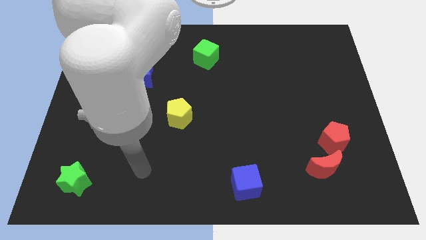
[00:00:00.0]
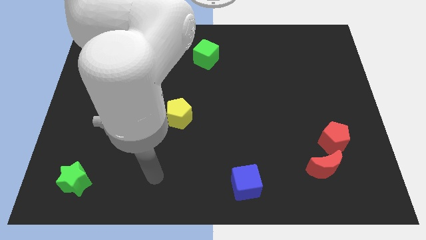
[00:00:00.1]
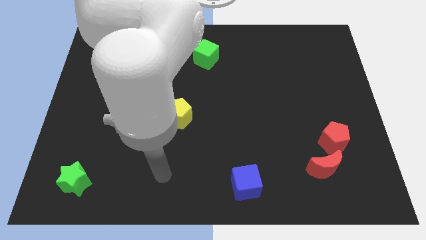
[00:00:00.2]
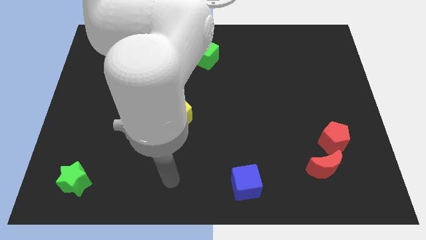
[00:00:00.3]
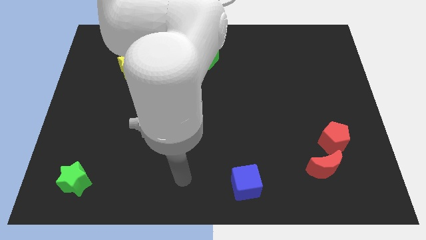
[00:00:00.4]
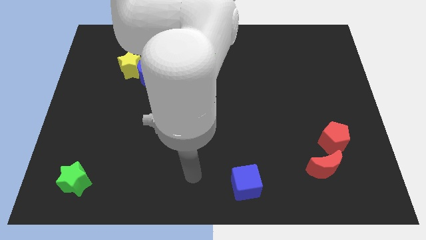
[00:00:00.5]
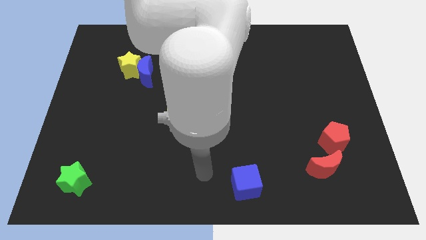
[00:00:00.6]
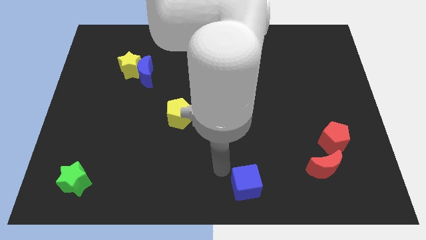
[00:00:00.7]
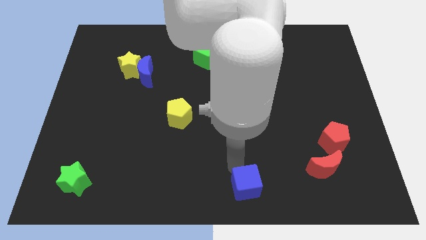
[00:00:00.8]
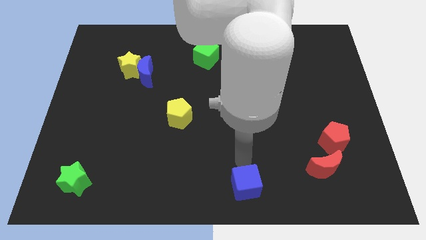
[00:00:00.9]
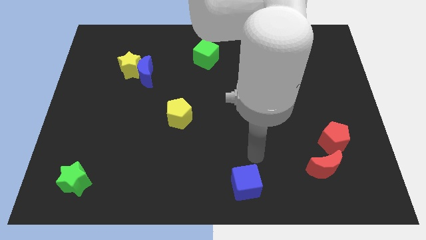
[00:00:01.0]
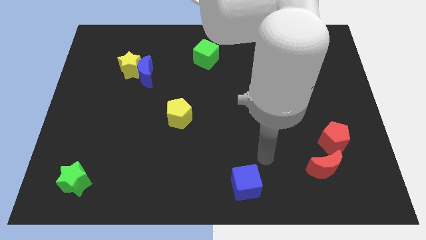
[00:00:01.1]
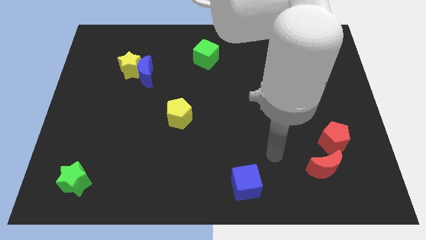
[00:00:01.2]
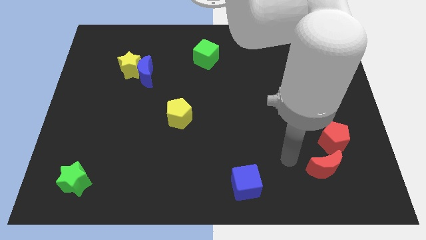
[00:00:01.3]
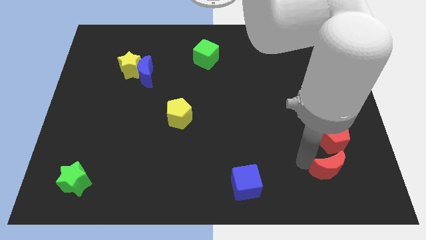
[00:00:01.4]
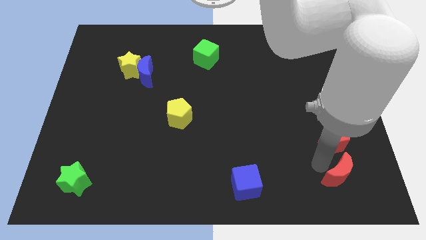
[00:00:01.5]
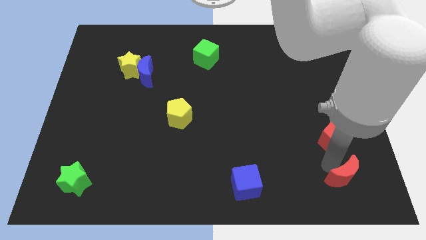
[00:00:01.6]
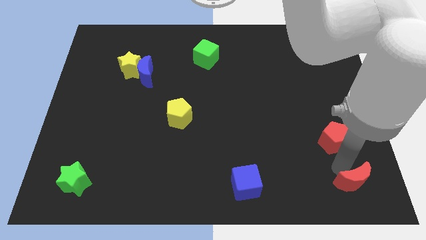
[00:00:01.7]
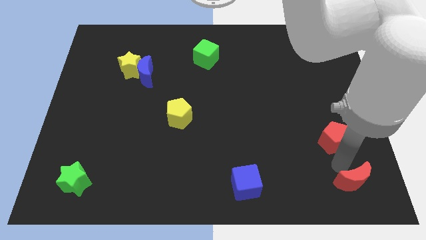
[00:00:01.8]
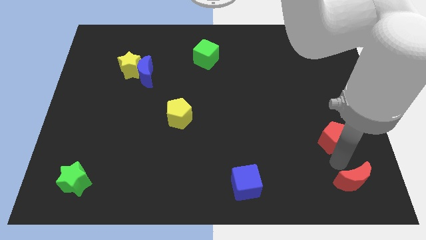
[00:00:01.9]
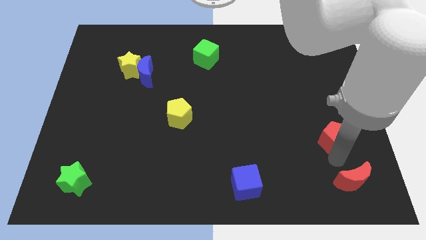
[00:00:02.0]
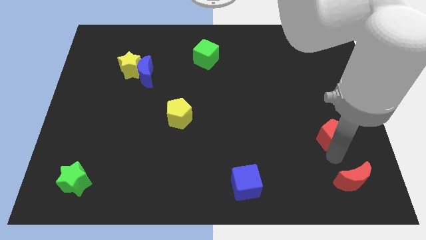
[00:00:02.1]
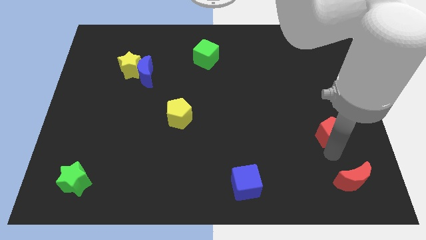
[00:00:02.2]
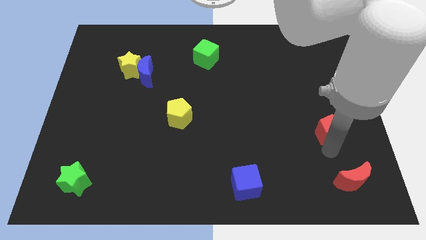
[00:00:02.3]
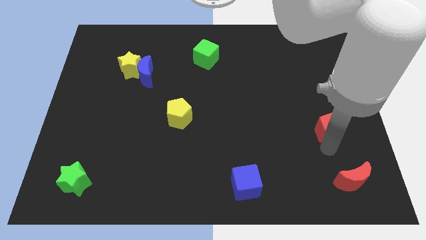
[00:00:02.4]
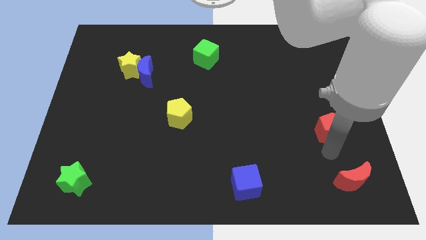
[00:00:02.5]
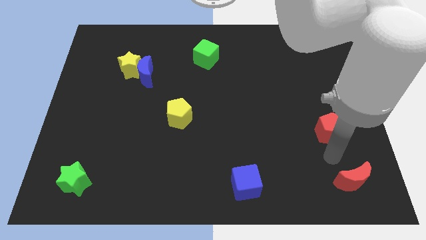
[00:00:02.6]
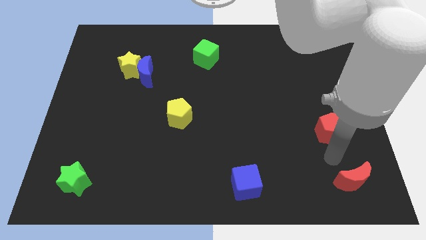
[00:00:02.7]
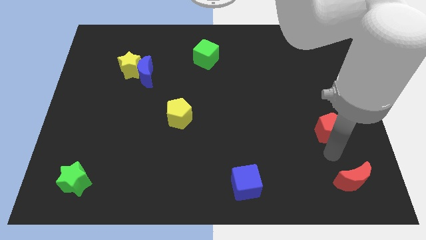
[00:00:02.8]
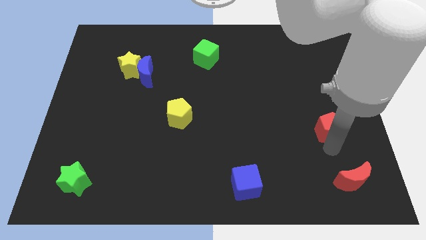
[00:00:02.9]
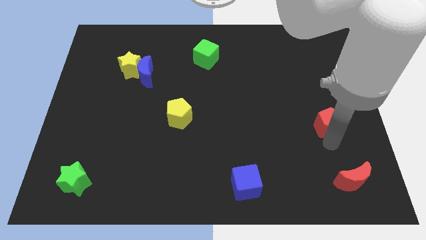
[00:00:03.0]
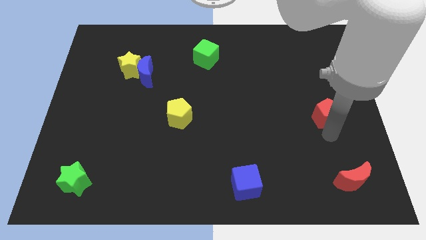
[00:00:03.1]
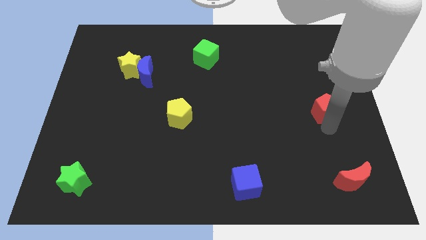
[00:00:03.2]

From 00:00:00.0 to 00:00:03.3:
move the red pentagon a bit up

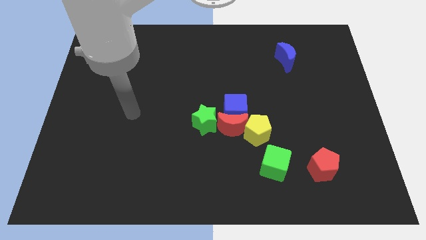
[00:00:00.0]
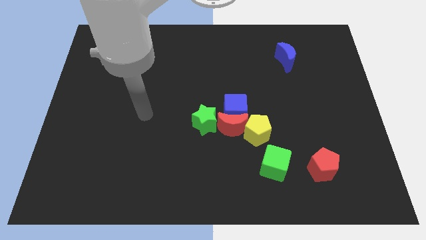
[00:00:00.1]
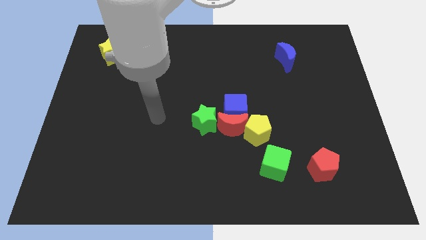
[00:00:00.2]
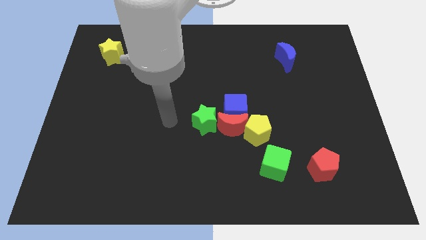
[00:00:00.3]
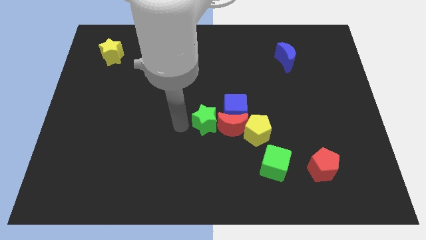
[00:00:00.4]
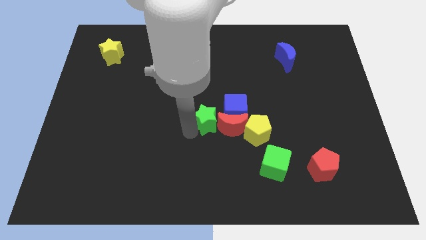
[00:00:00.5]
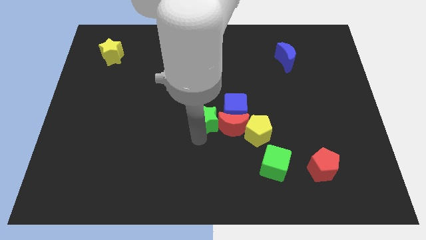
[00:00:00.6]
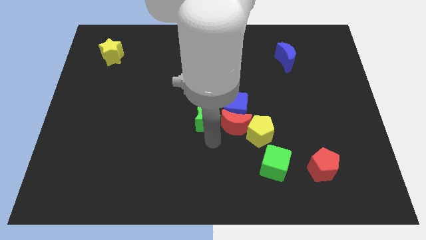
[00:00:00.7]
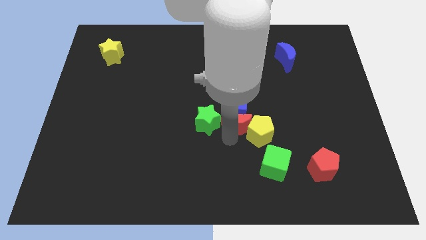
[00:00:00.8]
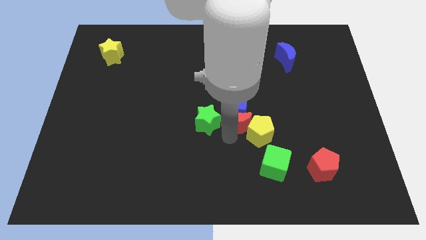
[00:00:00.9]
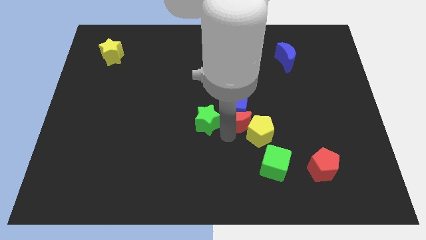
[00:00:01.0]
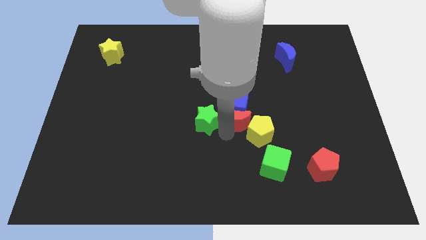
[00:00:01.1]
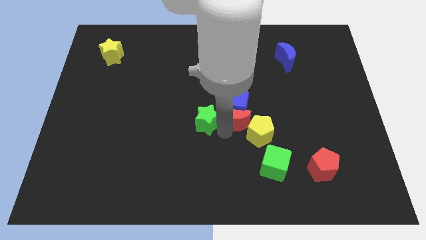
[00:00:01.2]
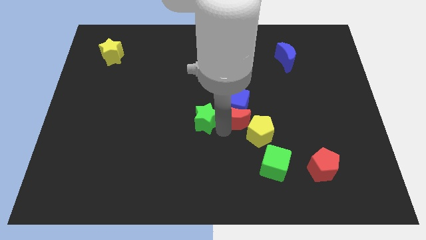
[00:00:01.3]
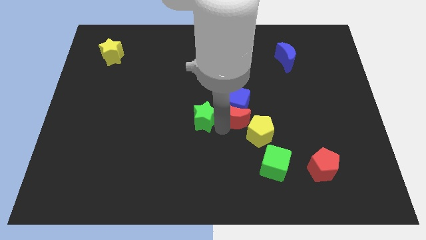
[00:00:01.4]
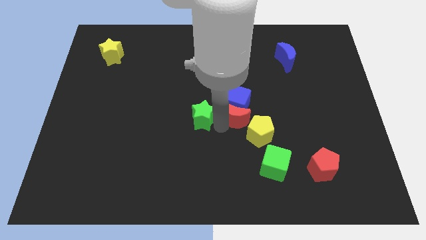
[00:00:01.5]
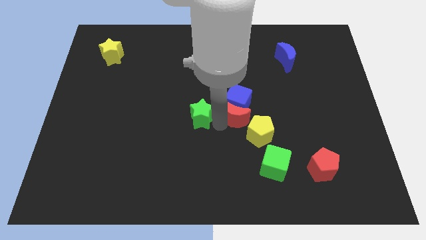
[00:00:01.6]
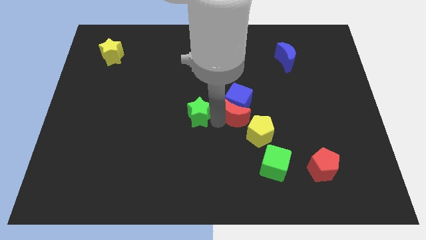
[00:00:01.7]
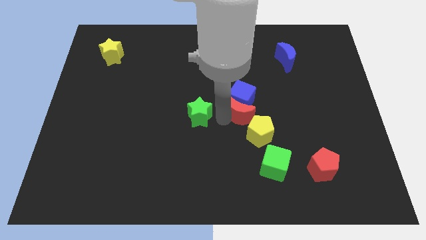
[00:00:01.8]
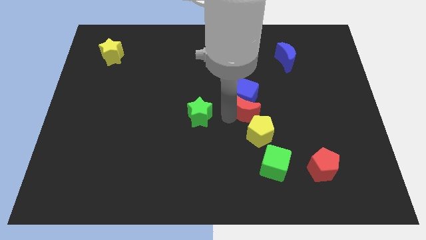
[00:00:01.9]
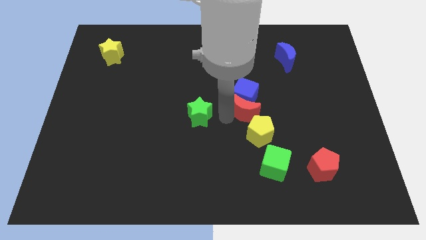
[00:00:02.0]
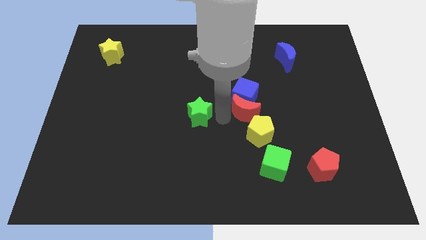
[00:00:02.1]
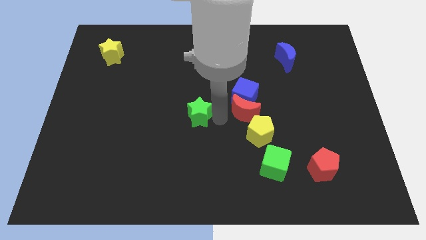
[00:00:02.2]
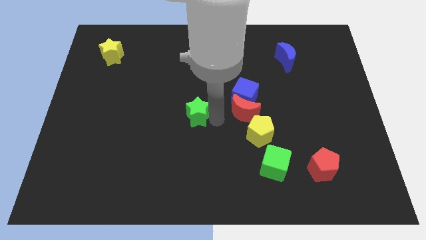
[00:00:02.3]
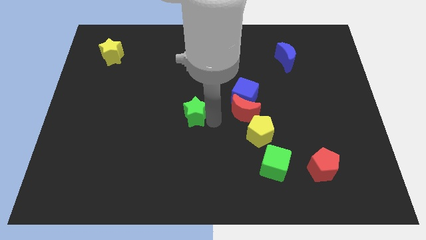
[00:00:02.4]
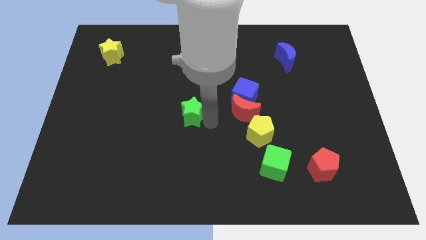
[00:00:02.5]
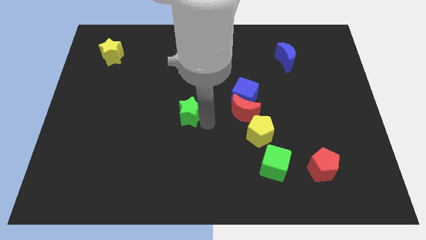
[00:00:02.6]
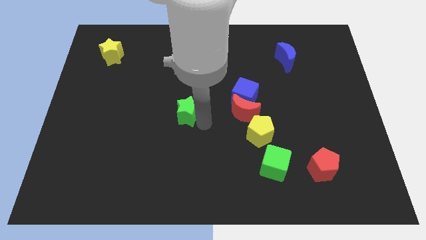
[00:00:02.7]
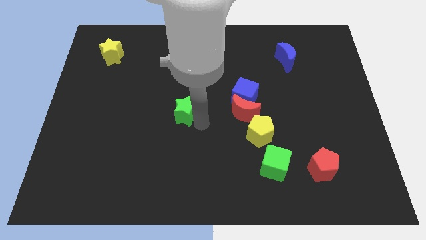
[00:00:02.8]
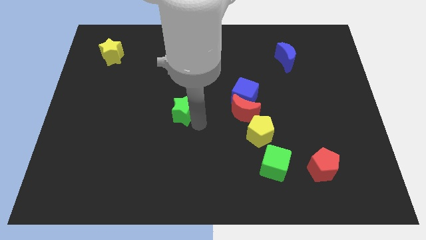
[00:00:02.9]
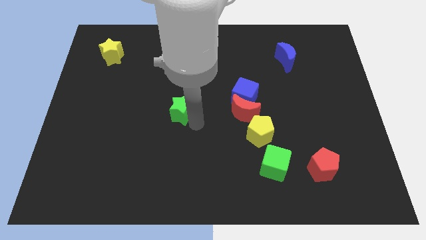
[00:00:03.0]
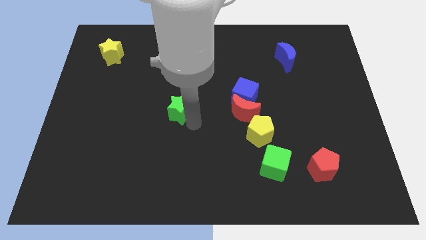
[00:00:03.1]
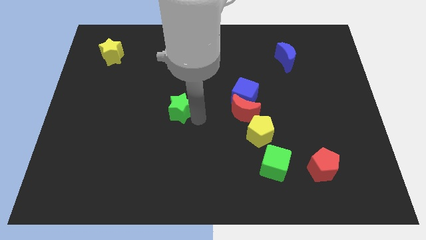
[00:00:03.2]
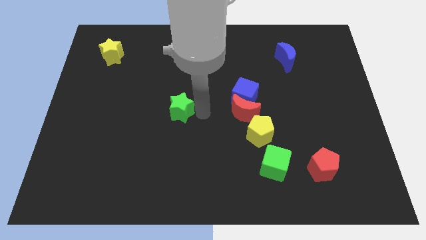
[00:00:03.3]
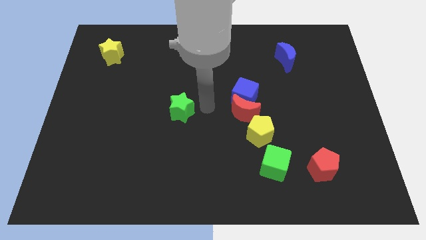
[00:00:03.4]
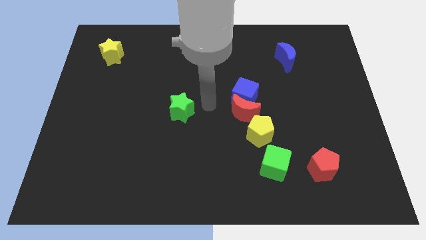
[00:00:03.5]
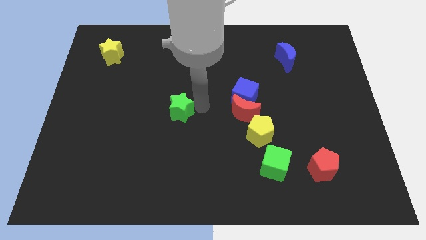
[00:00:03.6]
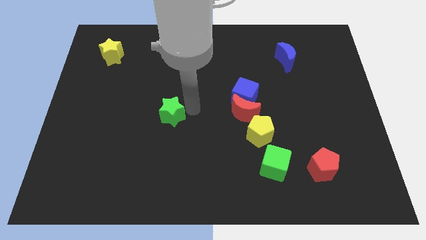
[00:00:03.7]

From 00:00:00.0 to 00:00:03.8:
push the green star left a little bit

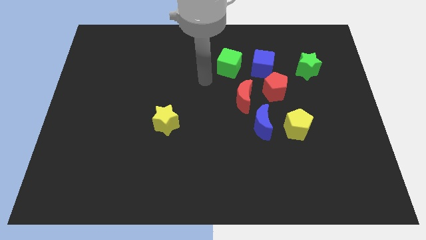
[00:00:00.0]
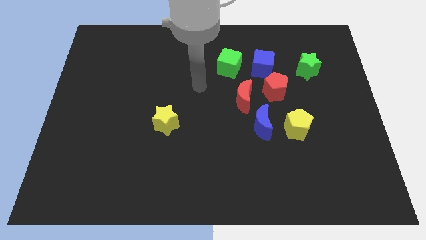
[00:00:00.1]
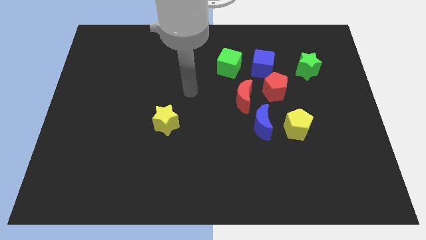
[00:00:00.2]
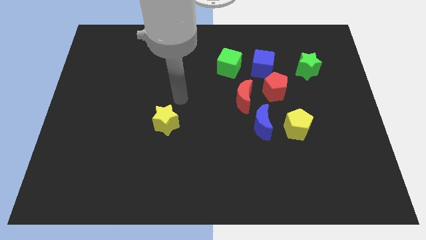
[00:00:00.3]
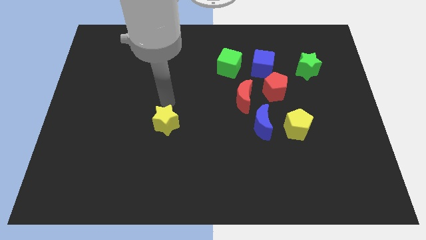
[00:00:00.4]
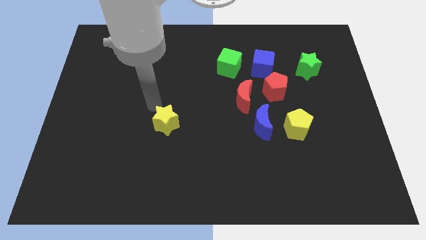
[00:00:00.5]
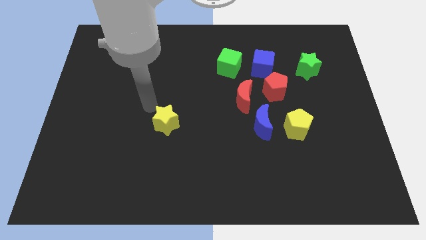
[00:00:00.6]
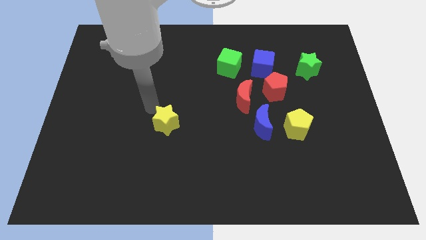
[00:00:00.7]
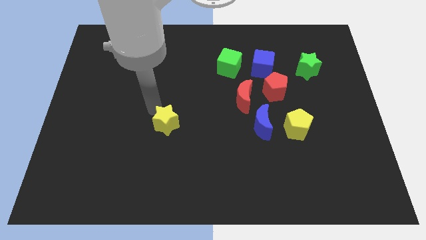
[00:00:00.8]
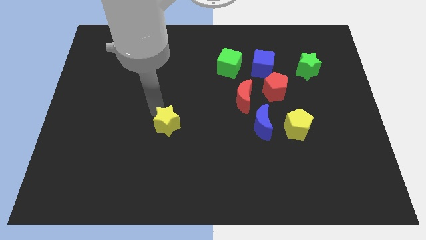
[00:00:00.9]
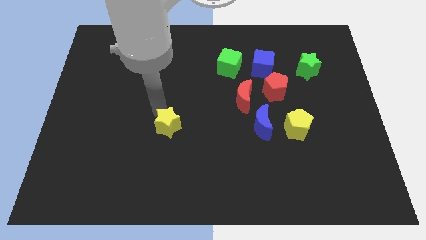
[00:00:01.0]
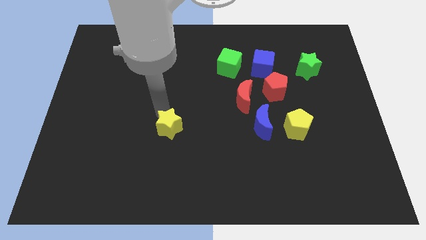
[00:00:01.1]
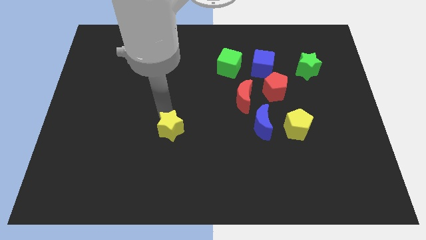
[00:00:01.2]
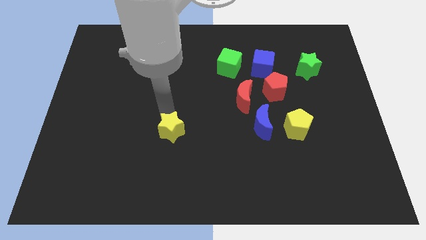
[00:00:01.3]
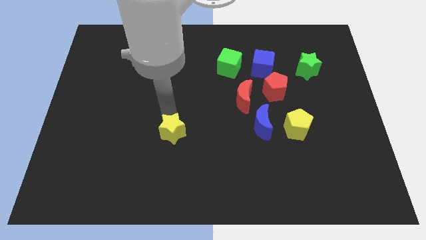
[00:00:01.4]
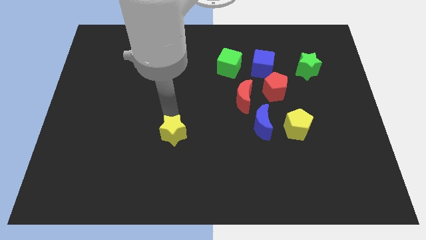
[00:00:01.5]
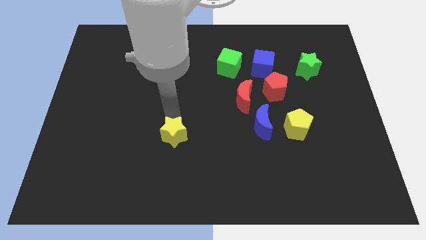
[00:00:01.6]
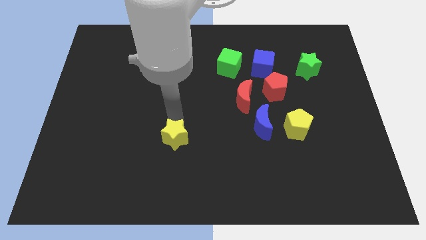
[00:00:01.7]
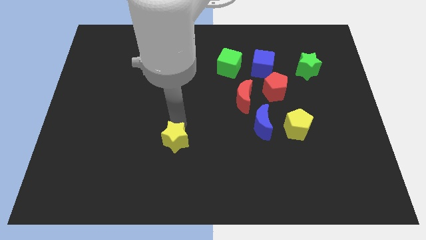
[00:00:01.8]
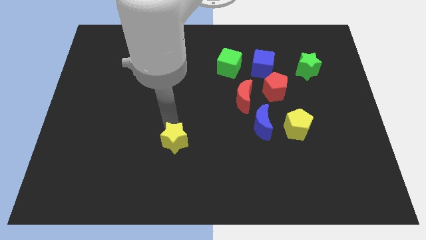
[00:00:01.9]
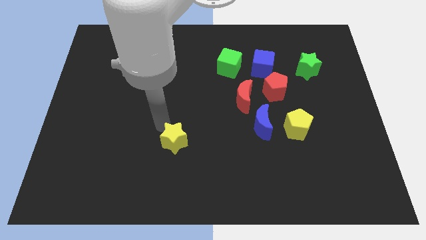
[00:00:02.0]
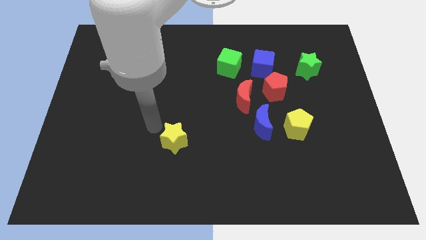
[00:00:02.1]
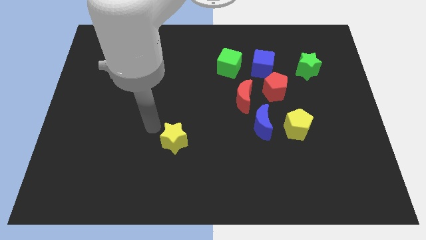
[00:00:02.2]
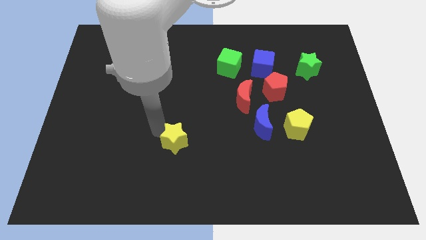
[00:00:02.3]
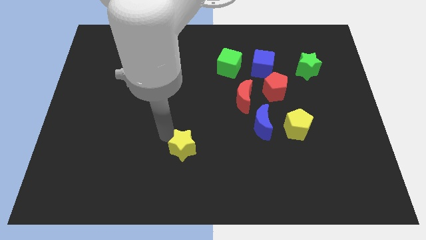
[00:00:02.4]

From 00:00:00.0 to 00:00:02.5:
slightly move the yellow star downwards and to the right diagonally
